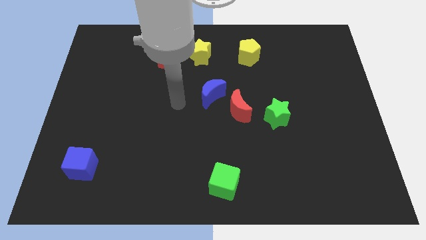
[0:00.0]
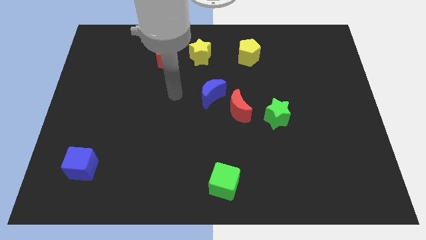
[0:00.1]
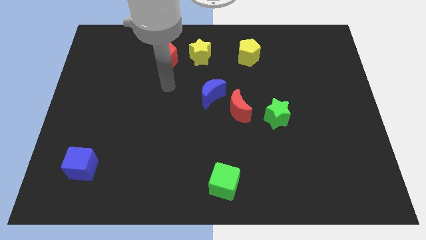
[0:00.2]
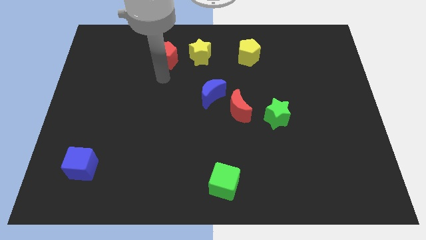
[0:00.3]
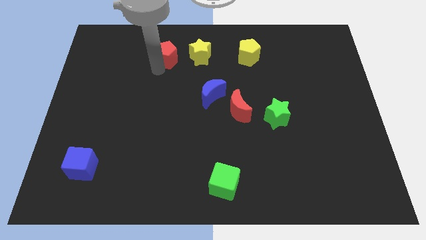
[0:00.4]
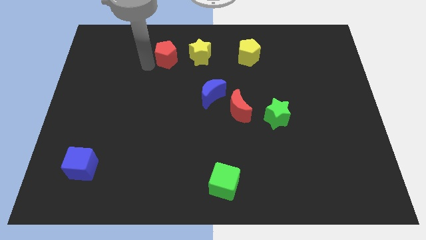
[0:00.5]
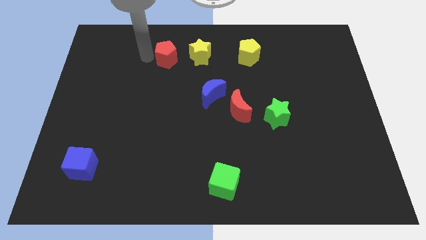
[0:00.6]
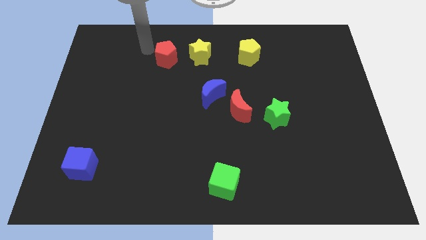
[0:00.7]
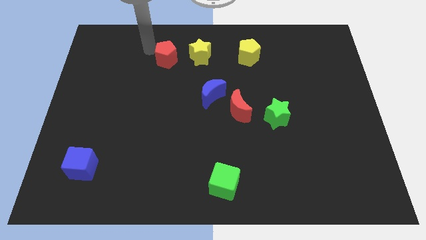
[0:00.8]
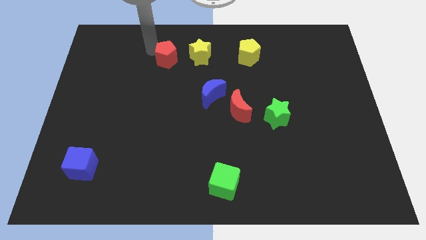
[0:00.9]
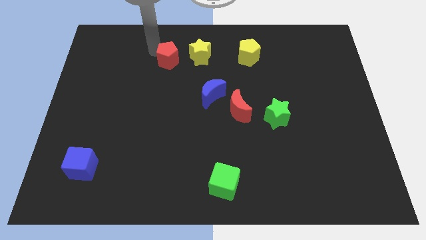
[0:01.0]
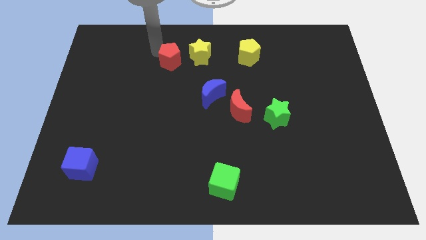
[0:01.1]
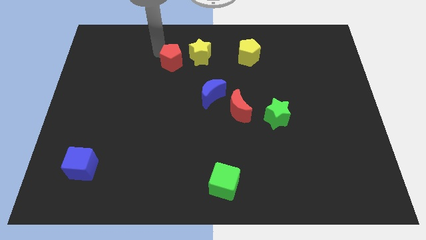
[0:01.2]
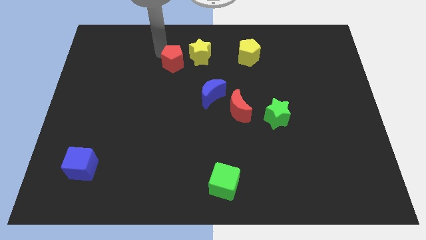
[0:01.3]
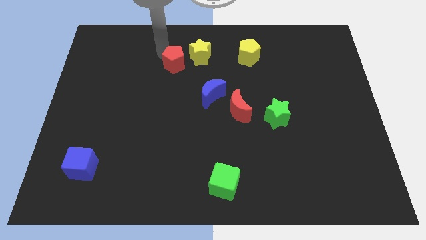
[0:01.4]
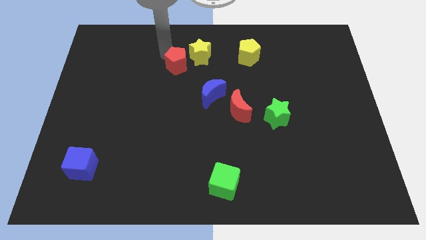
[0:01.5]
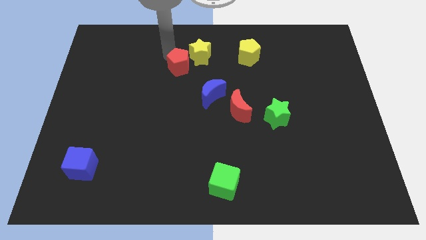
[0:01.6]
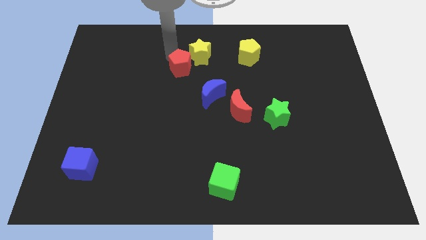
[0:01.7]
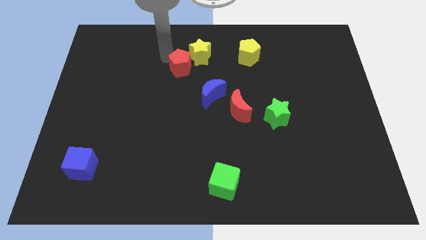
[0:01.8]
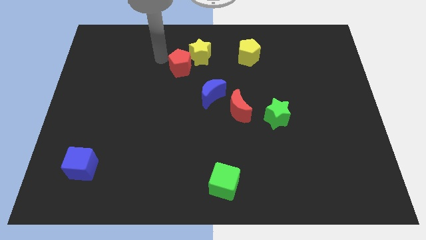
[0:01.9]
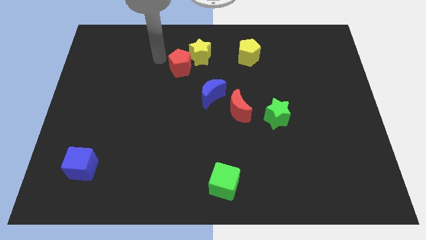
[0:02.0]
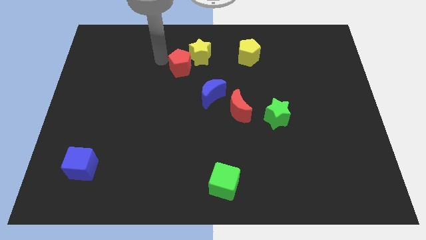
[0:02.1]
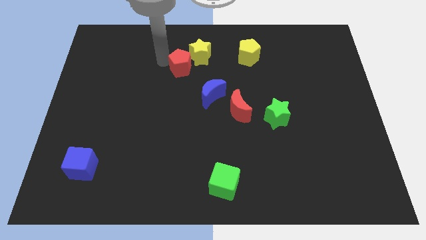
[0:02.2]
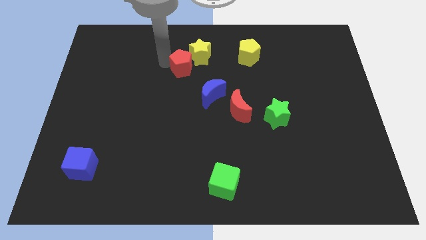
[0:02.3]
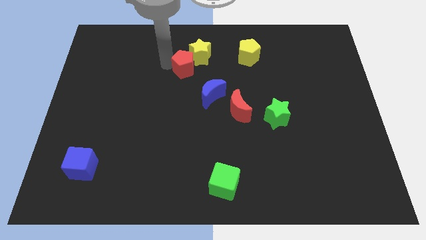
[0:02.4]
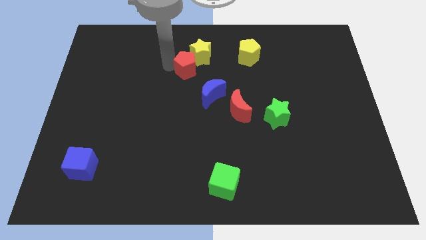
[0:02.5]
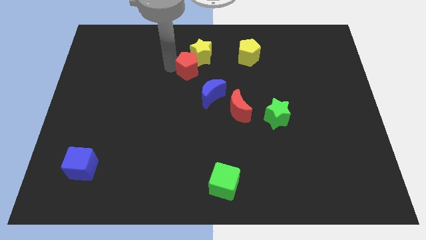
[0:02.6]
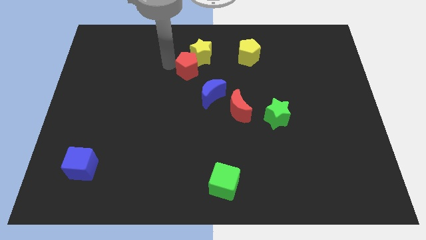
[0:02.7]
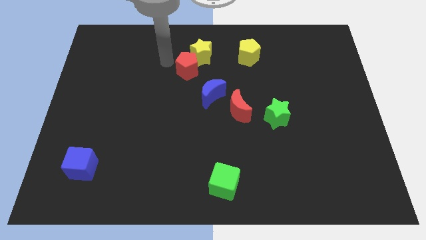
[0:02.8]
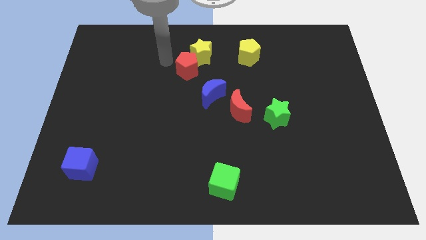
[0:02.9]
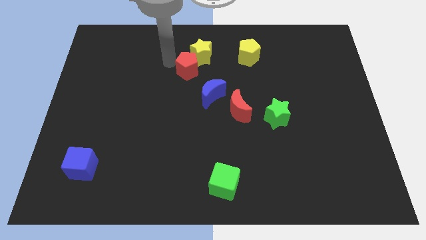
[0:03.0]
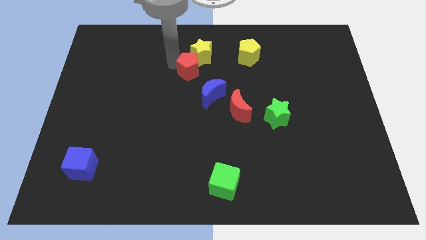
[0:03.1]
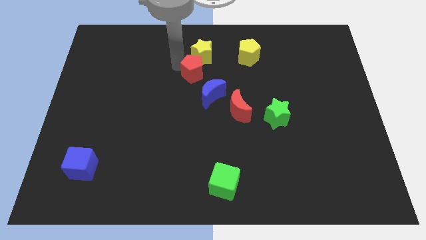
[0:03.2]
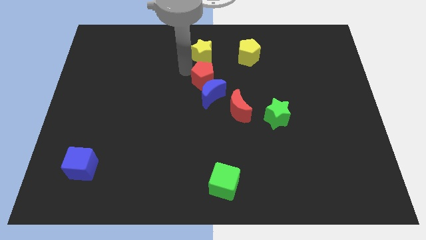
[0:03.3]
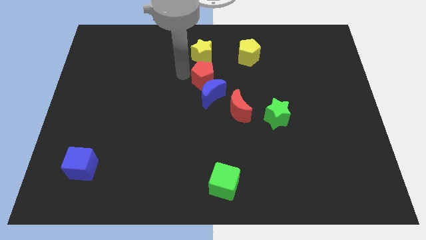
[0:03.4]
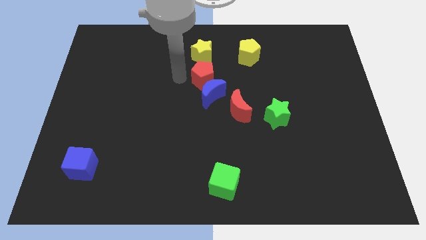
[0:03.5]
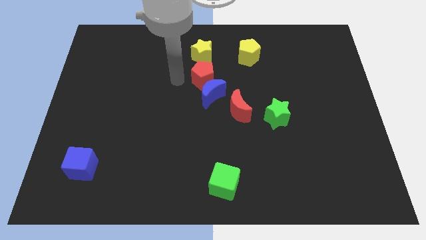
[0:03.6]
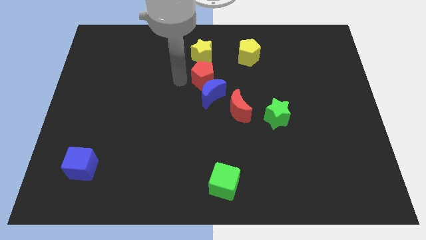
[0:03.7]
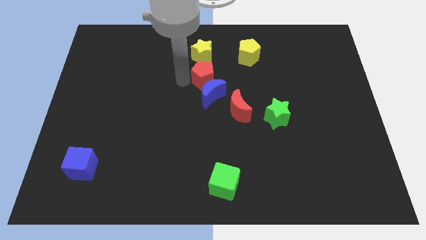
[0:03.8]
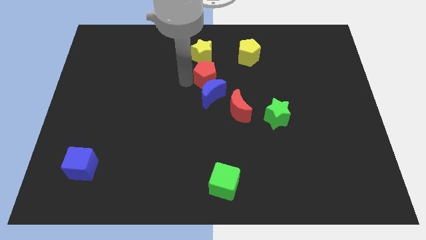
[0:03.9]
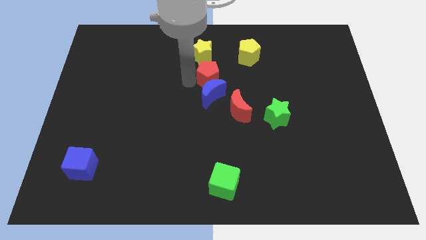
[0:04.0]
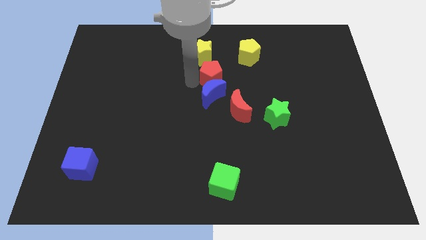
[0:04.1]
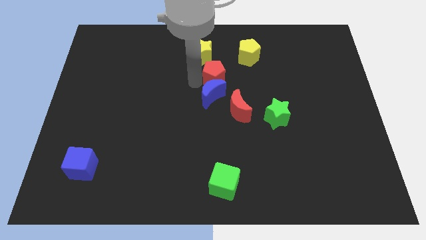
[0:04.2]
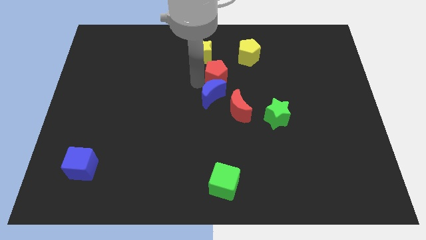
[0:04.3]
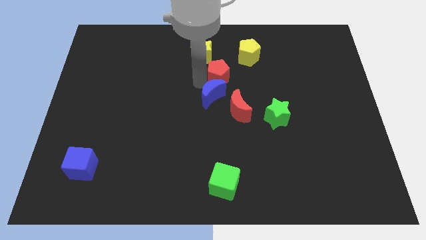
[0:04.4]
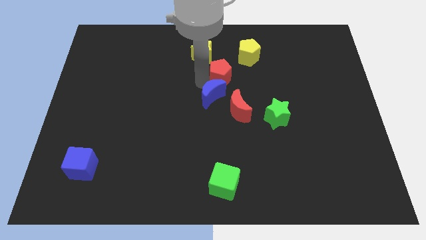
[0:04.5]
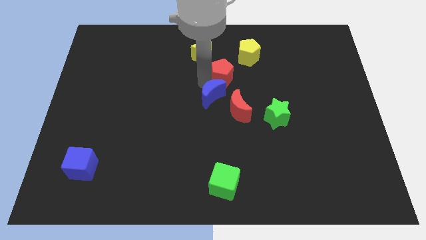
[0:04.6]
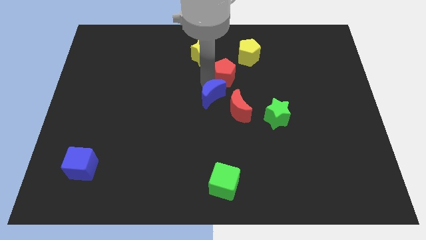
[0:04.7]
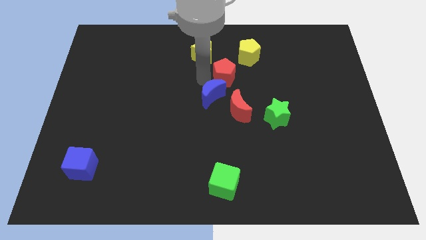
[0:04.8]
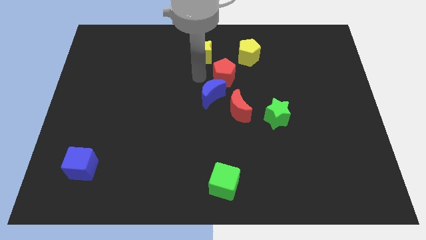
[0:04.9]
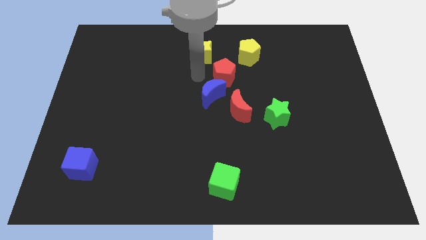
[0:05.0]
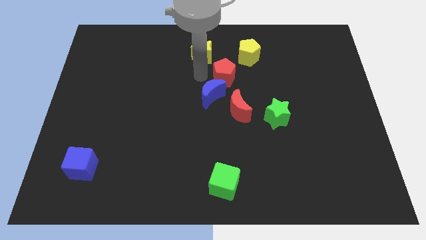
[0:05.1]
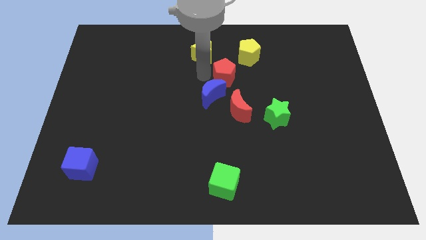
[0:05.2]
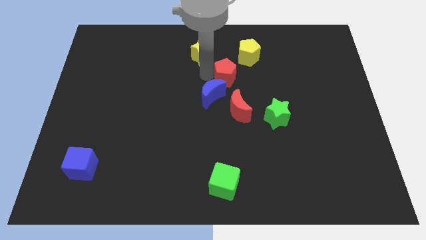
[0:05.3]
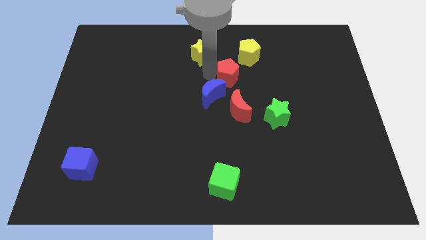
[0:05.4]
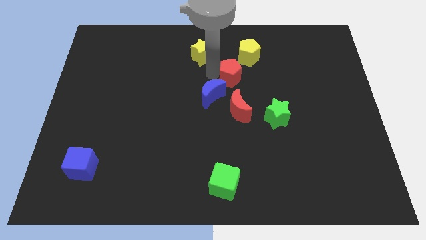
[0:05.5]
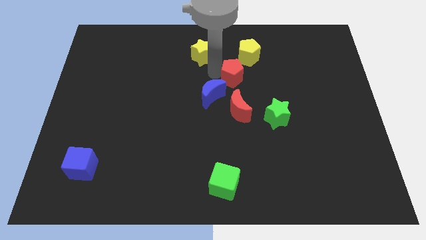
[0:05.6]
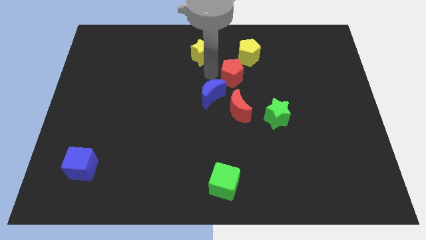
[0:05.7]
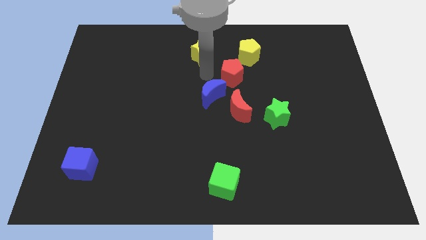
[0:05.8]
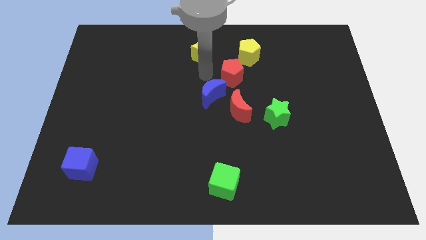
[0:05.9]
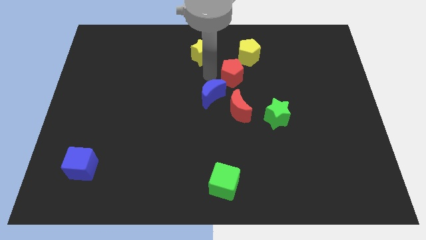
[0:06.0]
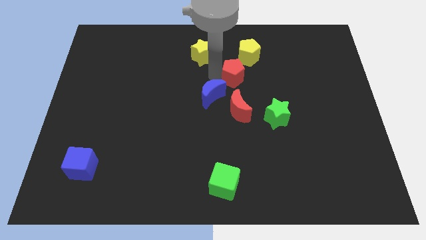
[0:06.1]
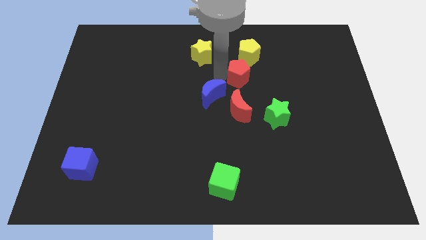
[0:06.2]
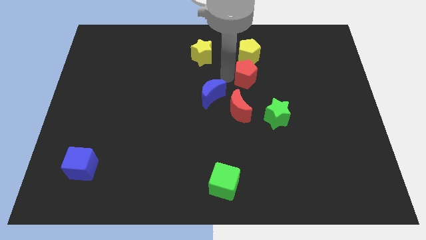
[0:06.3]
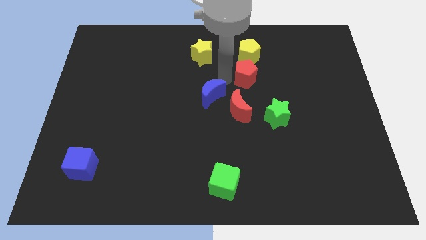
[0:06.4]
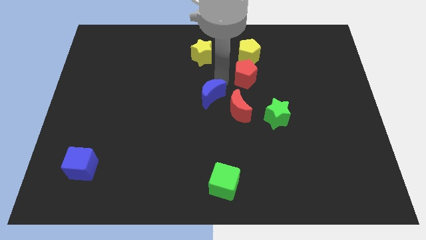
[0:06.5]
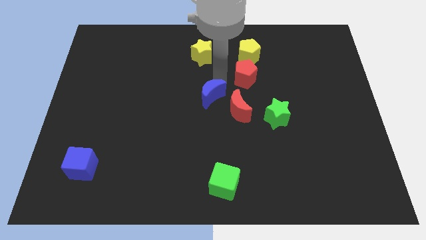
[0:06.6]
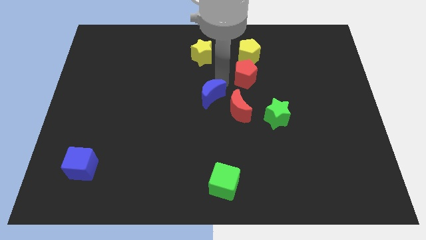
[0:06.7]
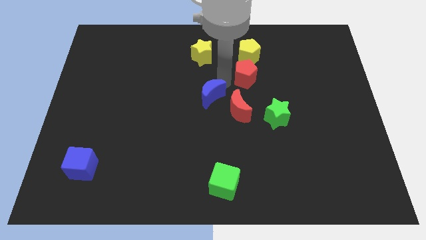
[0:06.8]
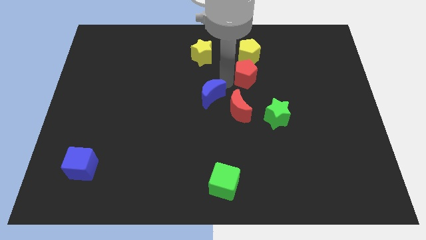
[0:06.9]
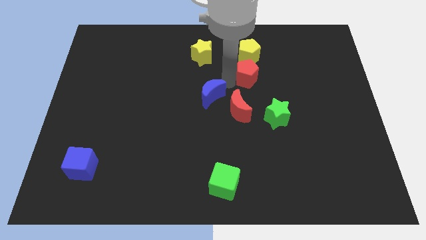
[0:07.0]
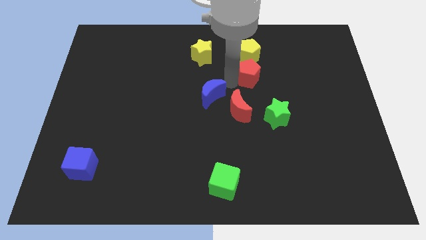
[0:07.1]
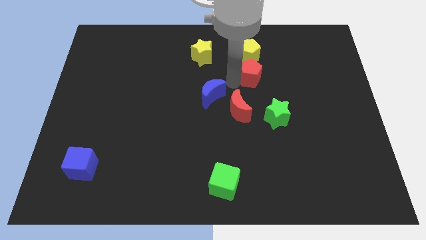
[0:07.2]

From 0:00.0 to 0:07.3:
push the red pentagon right

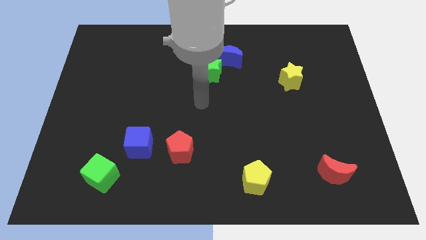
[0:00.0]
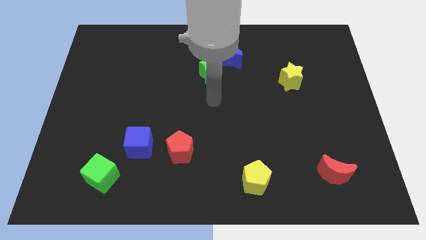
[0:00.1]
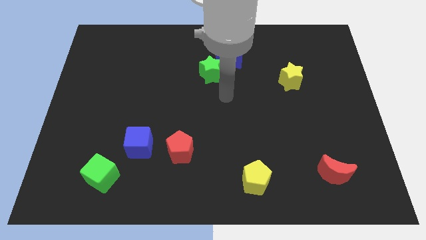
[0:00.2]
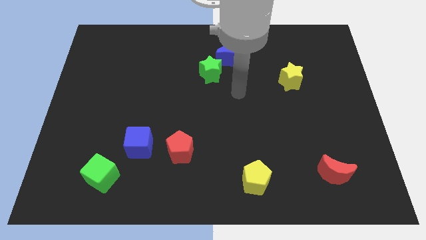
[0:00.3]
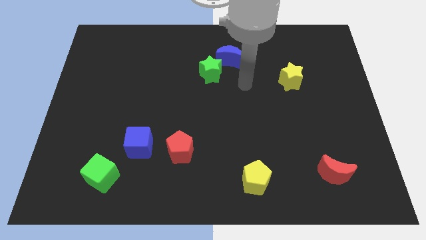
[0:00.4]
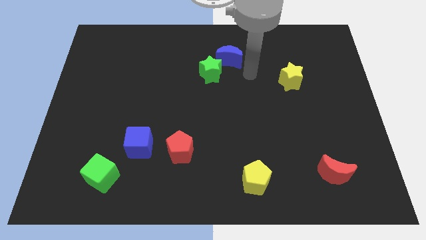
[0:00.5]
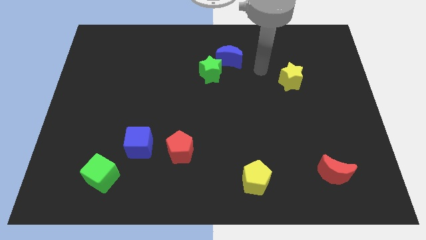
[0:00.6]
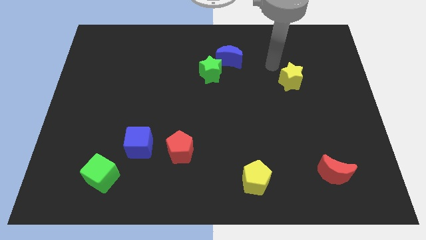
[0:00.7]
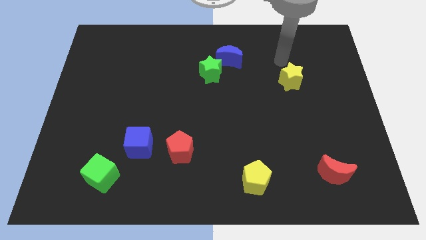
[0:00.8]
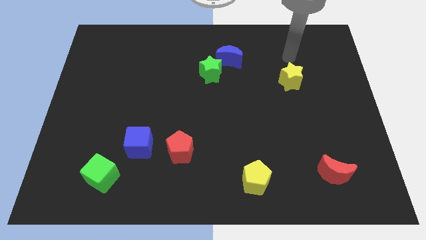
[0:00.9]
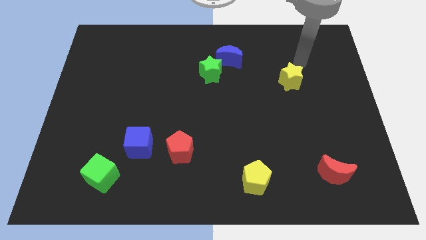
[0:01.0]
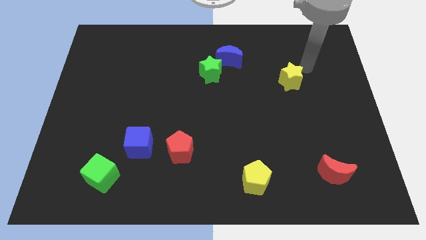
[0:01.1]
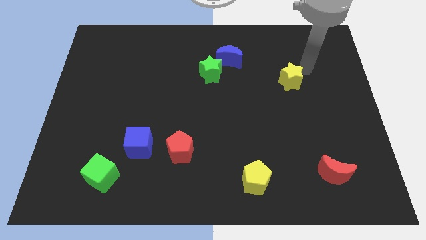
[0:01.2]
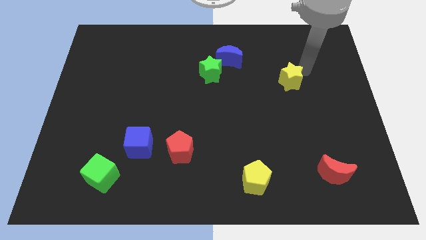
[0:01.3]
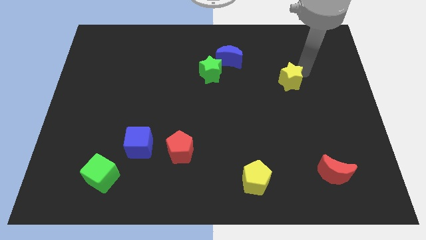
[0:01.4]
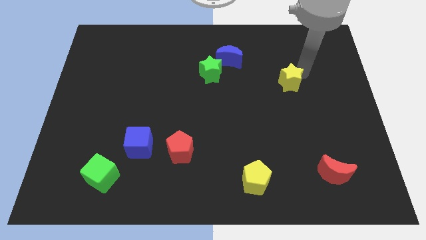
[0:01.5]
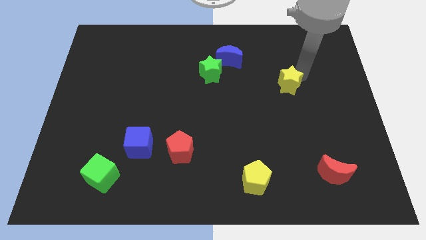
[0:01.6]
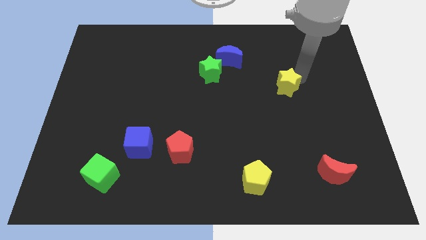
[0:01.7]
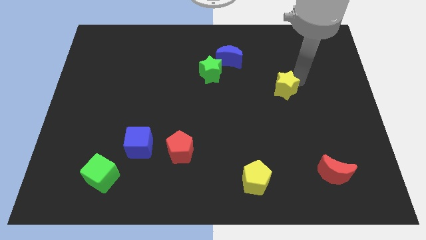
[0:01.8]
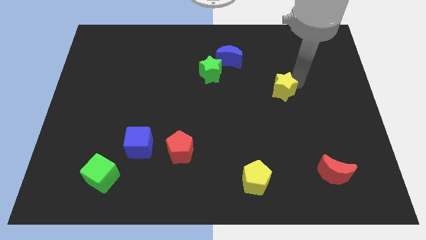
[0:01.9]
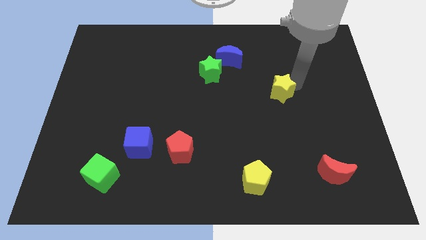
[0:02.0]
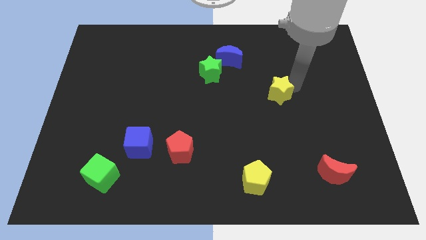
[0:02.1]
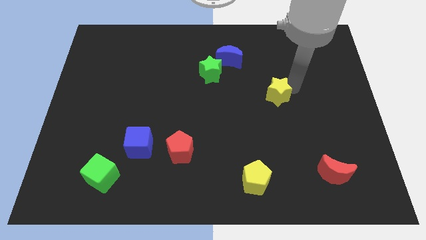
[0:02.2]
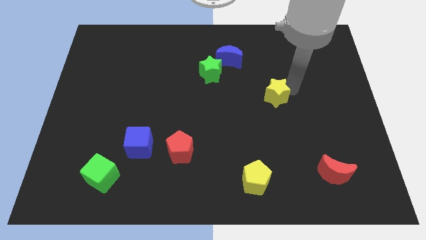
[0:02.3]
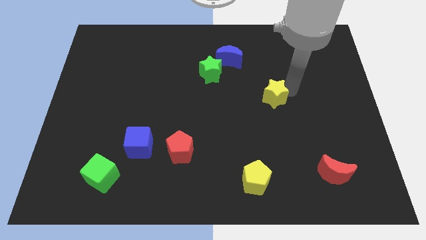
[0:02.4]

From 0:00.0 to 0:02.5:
slightly slide the yellow star diagonally downwards and left
